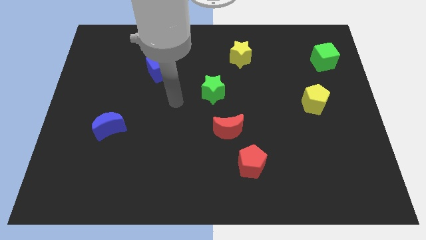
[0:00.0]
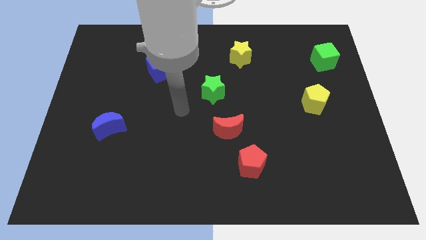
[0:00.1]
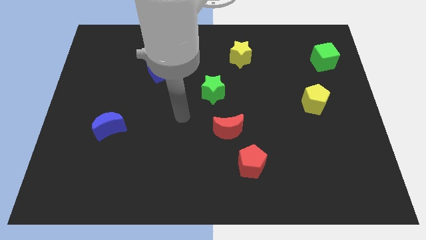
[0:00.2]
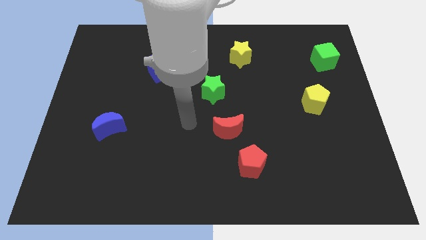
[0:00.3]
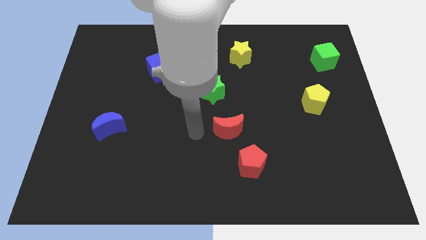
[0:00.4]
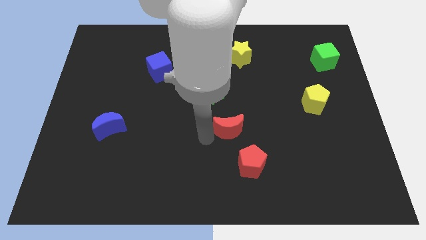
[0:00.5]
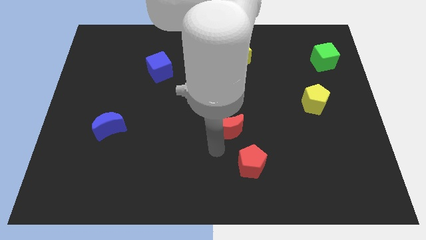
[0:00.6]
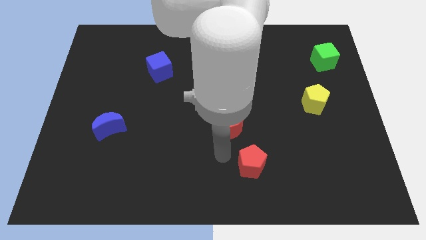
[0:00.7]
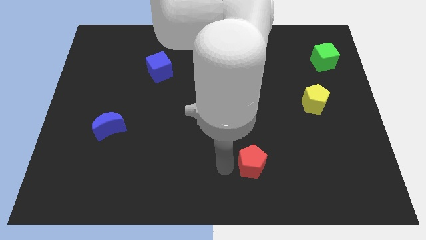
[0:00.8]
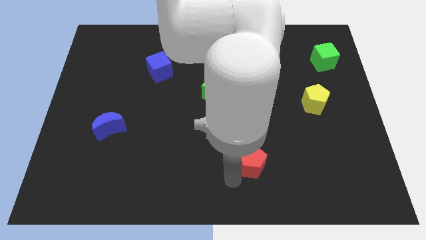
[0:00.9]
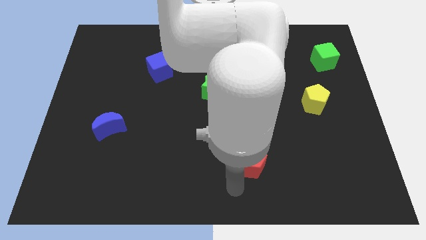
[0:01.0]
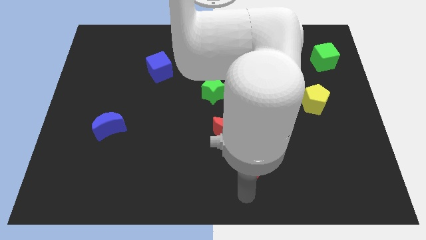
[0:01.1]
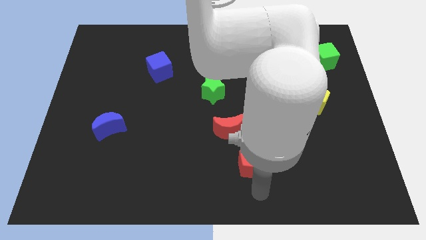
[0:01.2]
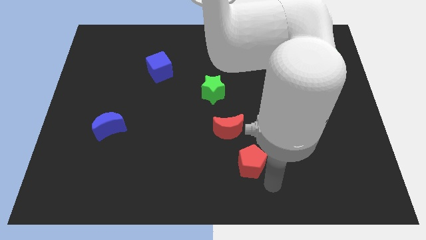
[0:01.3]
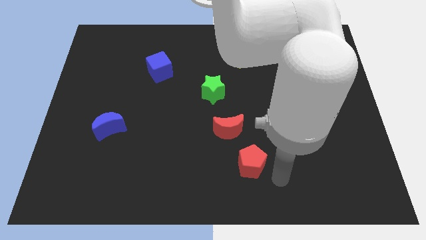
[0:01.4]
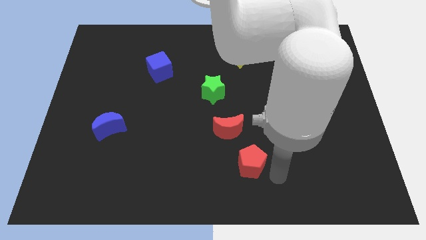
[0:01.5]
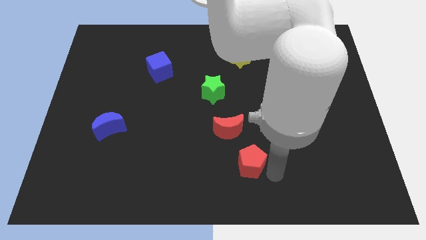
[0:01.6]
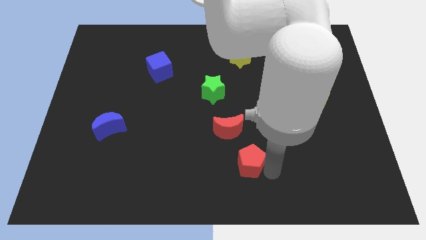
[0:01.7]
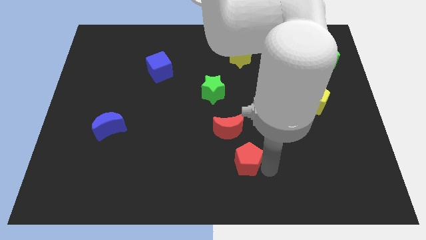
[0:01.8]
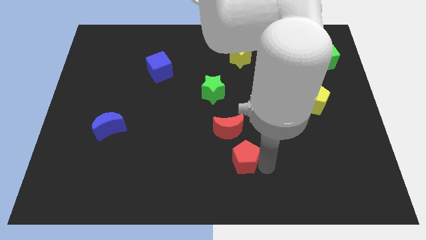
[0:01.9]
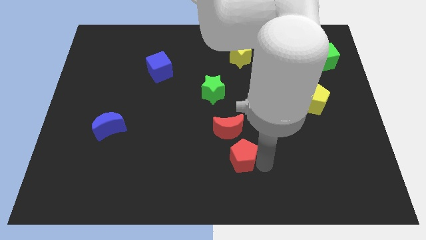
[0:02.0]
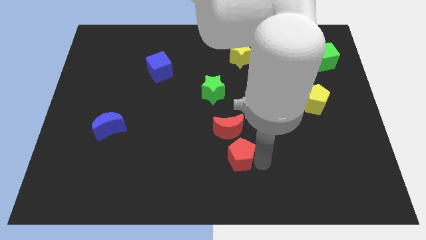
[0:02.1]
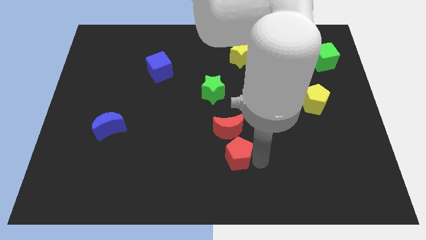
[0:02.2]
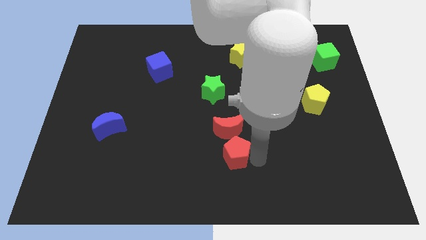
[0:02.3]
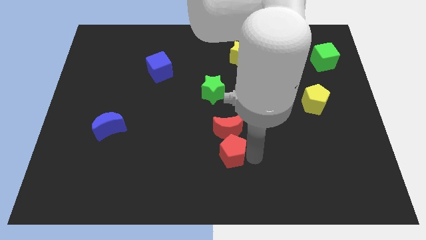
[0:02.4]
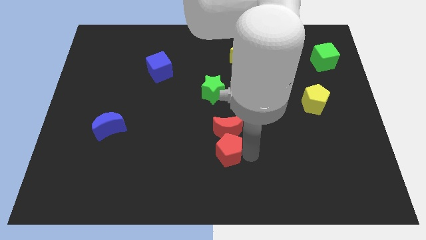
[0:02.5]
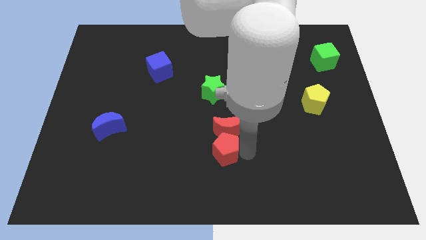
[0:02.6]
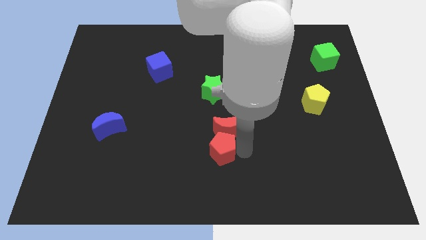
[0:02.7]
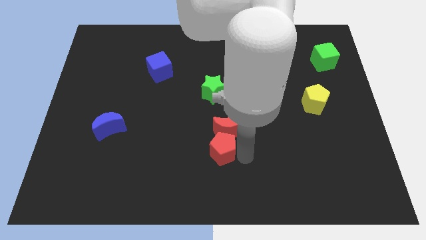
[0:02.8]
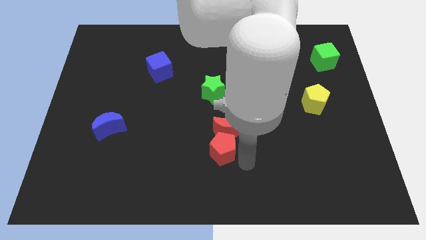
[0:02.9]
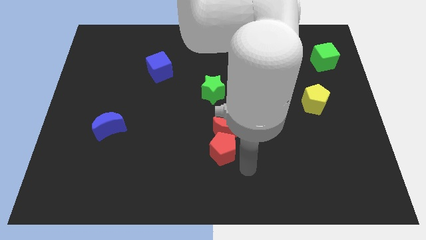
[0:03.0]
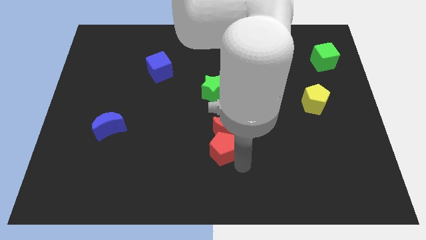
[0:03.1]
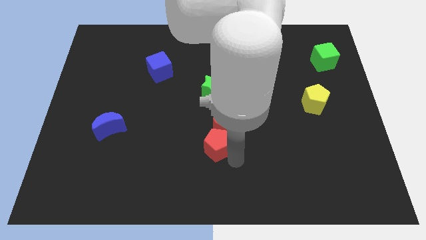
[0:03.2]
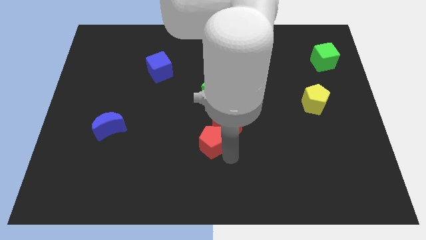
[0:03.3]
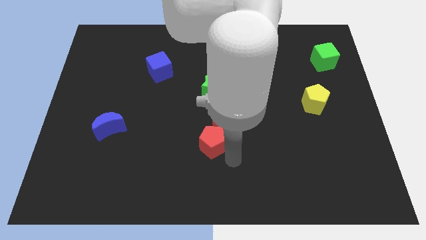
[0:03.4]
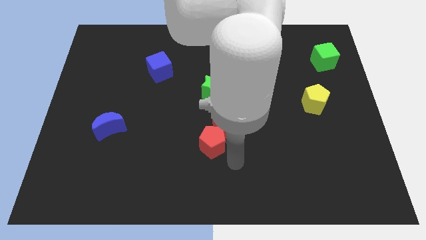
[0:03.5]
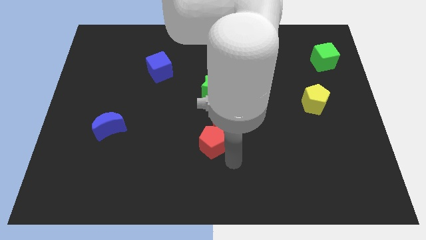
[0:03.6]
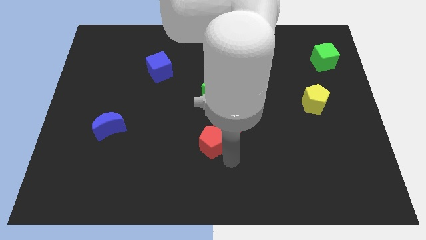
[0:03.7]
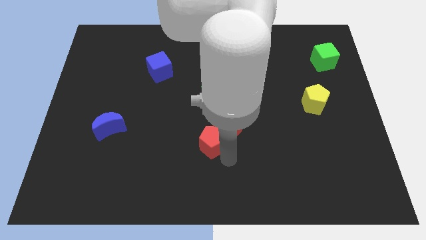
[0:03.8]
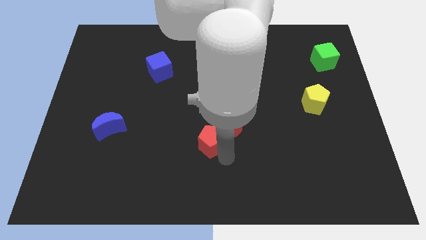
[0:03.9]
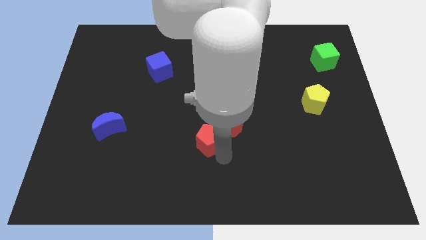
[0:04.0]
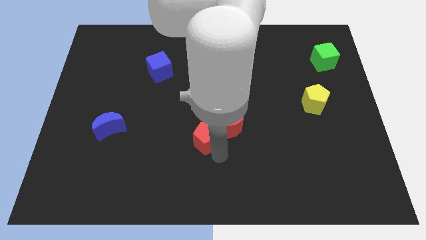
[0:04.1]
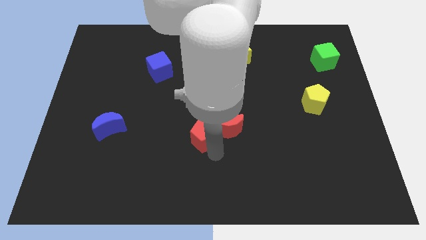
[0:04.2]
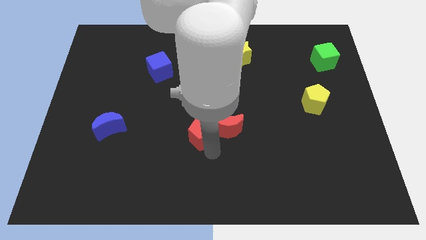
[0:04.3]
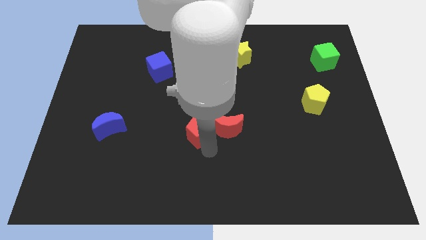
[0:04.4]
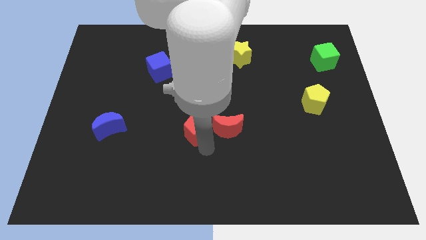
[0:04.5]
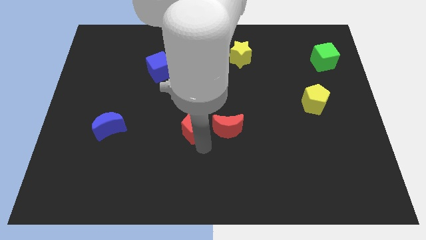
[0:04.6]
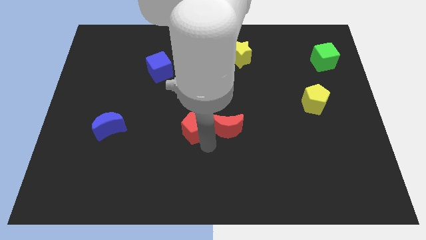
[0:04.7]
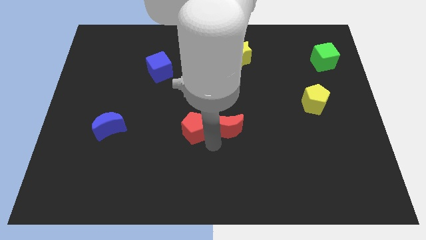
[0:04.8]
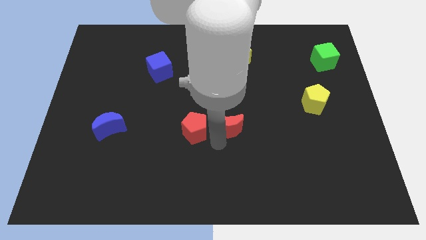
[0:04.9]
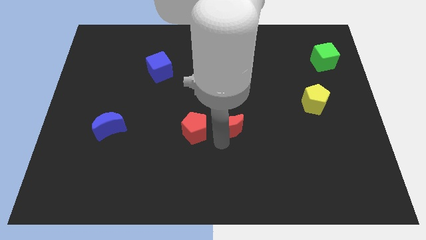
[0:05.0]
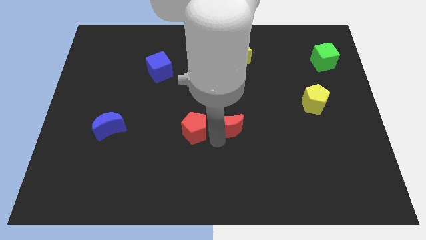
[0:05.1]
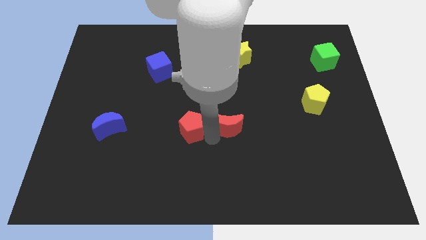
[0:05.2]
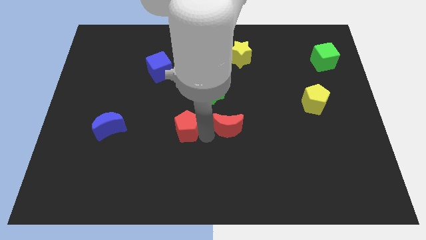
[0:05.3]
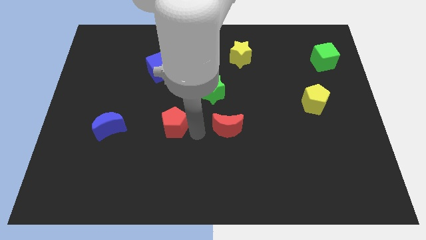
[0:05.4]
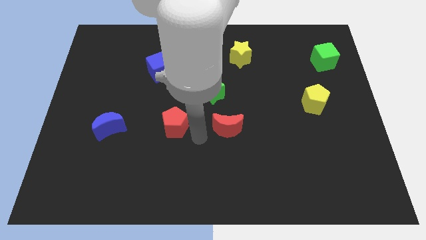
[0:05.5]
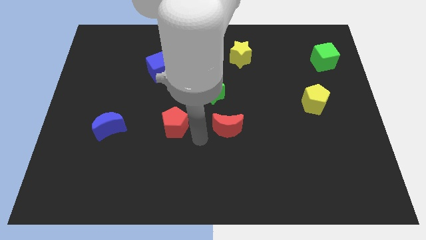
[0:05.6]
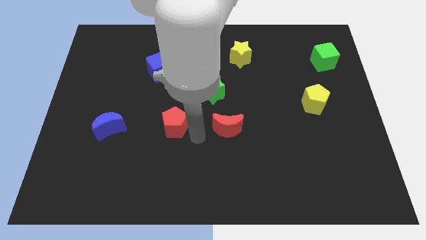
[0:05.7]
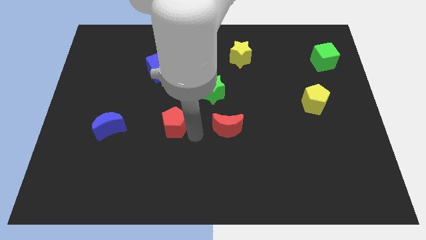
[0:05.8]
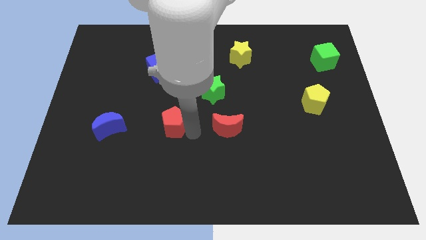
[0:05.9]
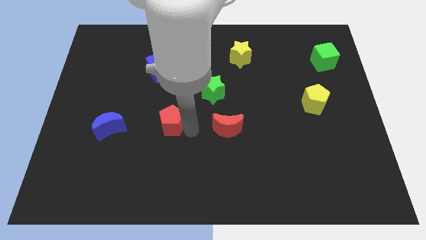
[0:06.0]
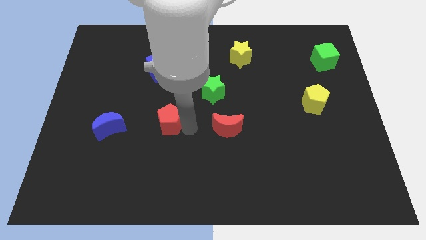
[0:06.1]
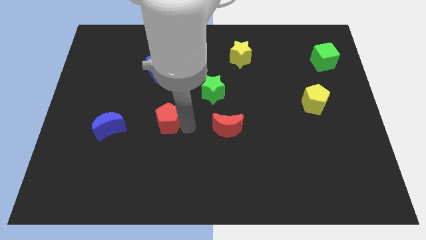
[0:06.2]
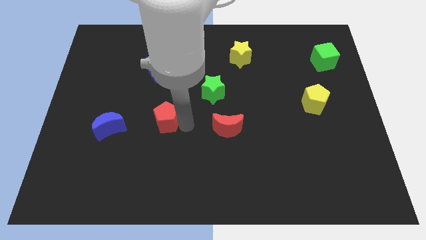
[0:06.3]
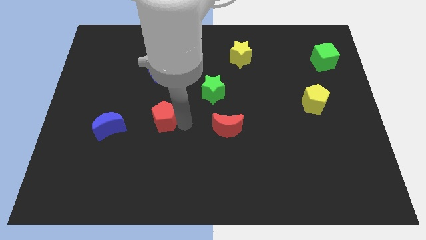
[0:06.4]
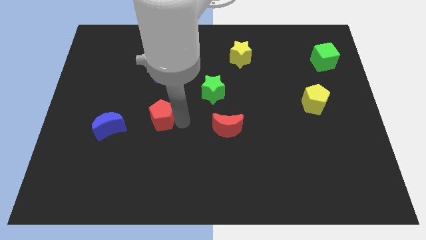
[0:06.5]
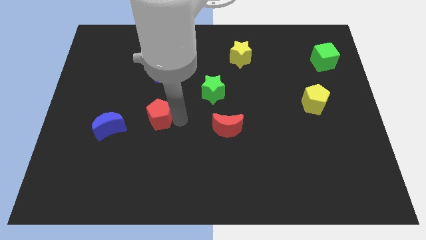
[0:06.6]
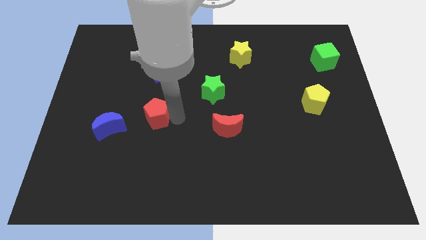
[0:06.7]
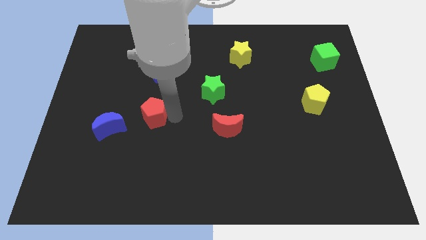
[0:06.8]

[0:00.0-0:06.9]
move the red pentagon to the top right side of the blue moon

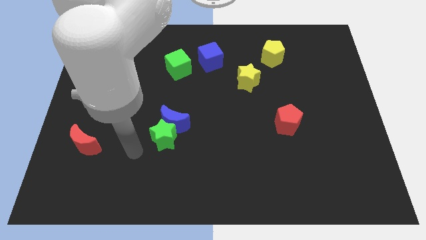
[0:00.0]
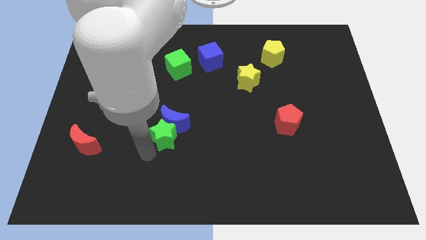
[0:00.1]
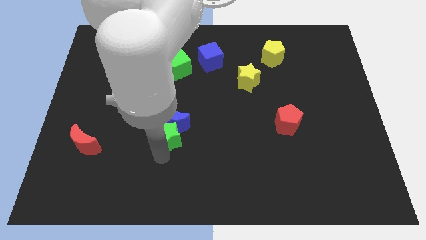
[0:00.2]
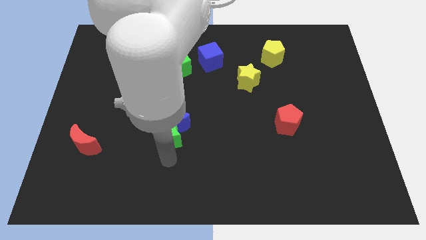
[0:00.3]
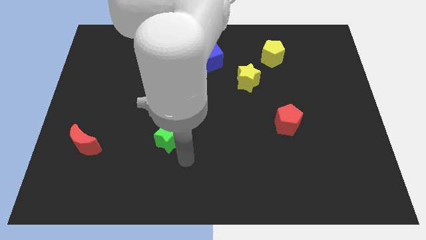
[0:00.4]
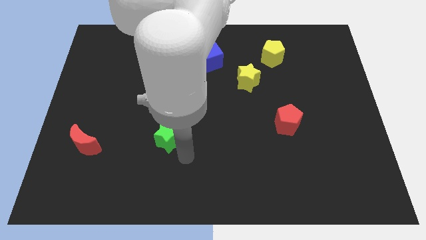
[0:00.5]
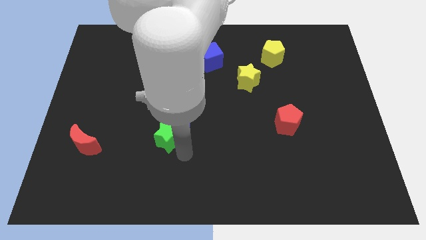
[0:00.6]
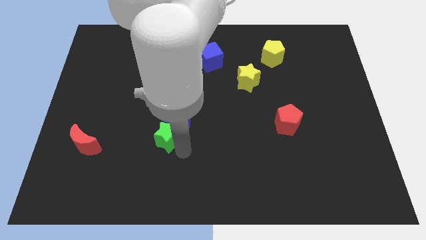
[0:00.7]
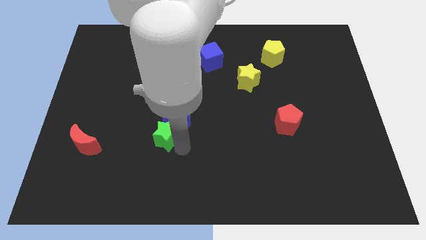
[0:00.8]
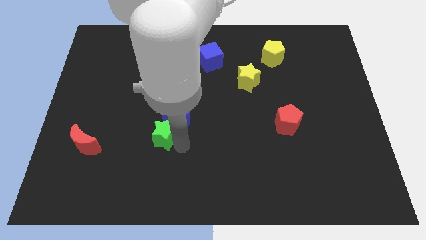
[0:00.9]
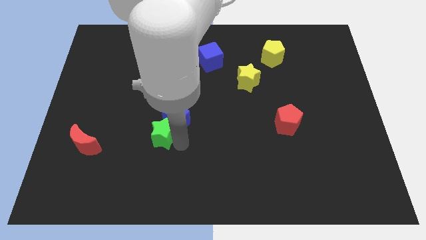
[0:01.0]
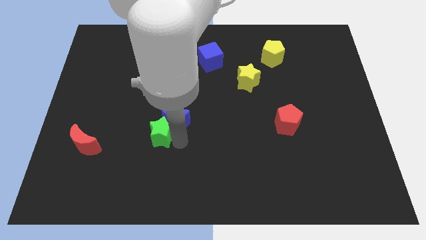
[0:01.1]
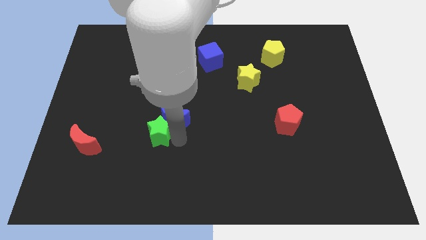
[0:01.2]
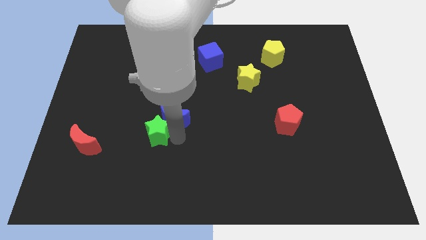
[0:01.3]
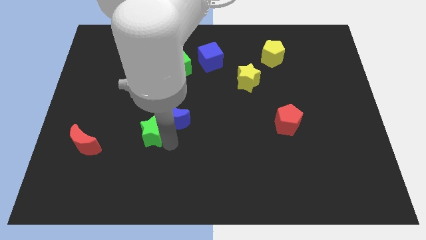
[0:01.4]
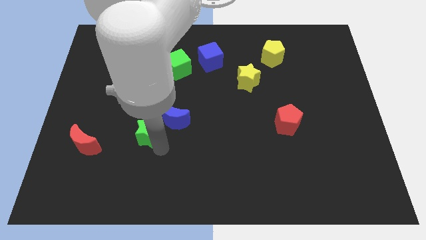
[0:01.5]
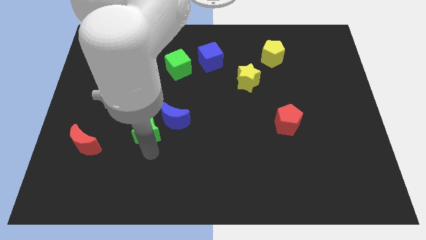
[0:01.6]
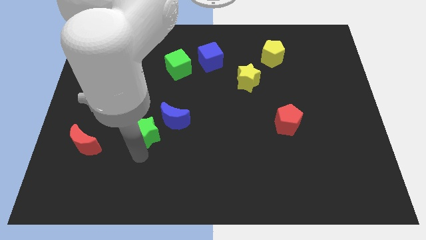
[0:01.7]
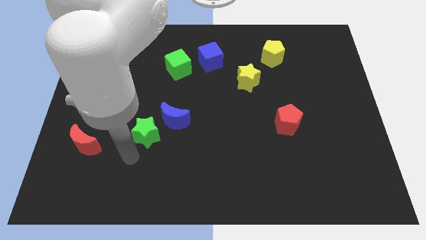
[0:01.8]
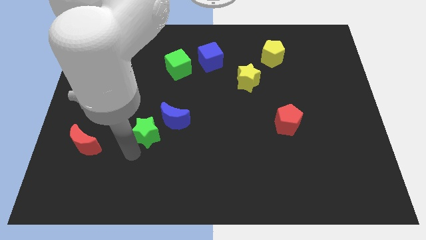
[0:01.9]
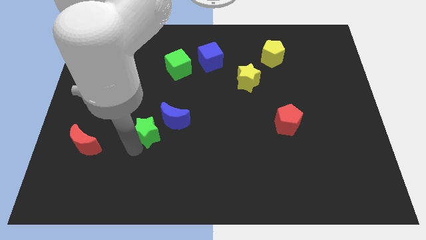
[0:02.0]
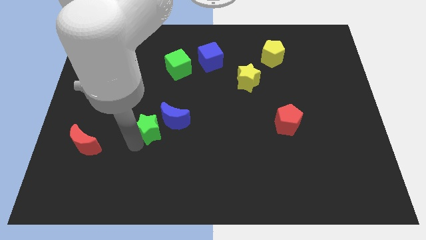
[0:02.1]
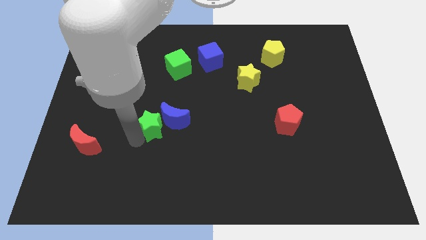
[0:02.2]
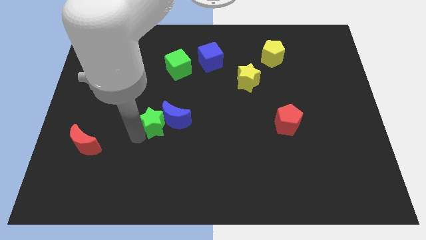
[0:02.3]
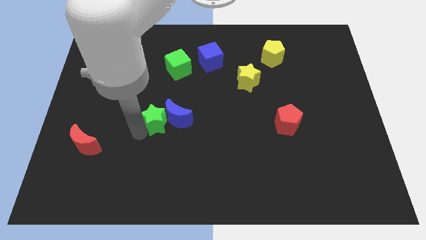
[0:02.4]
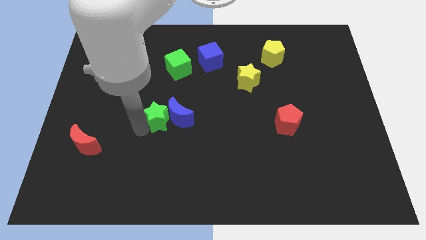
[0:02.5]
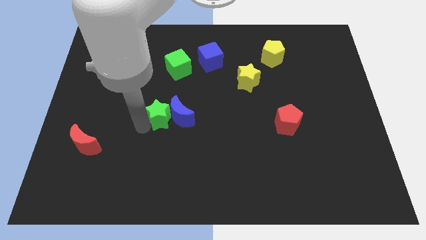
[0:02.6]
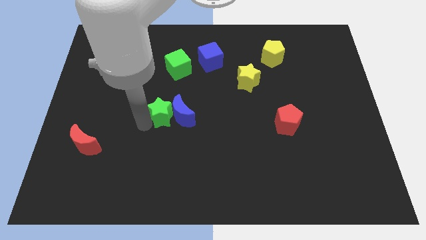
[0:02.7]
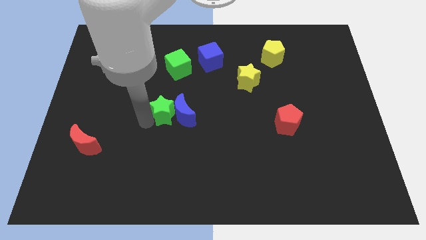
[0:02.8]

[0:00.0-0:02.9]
move the green star below the green cube
